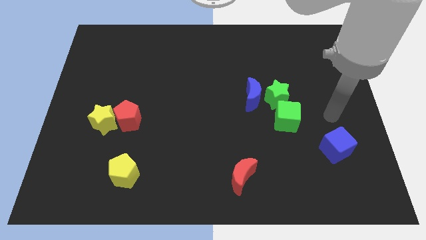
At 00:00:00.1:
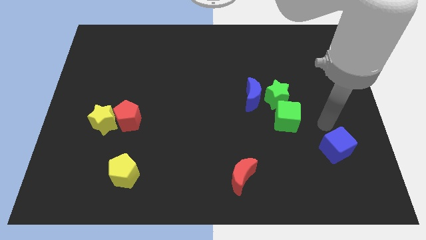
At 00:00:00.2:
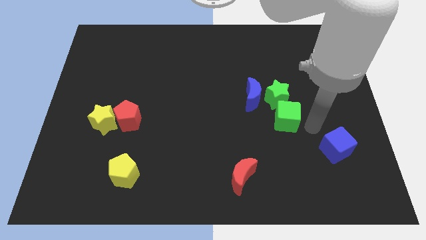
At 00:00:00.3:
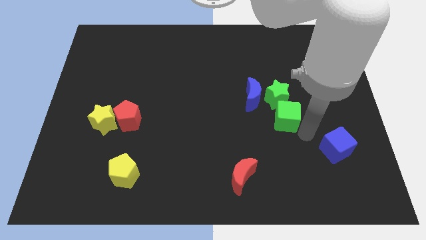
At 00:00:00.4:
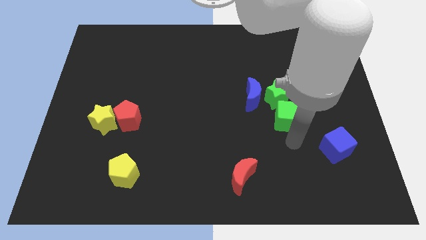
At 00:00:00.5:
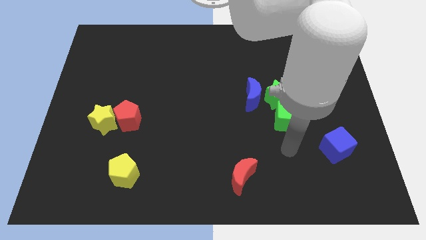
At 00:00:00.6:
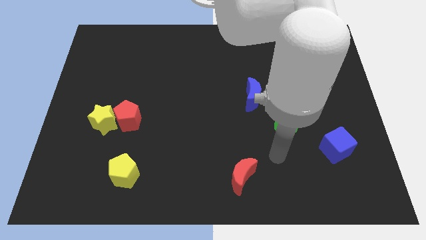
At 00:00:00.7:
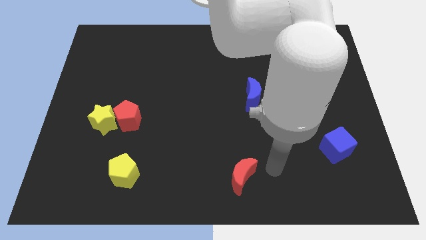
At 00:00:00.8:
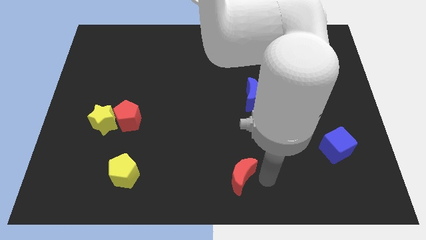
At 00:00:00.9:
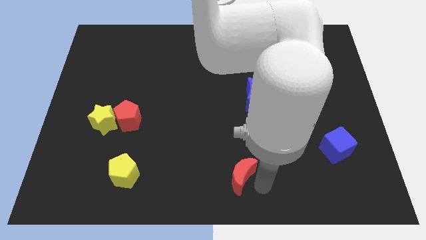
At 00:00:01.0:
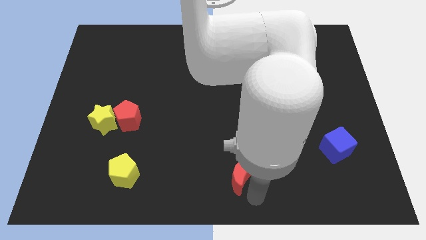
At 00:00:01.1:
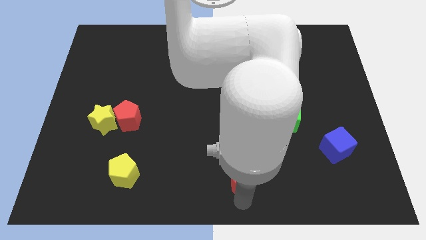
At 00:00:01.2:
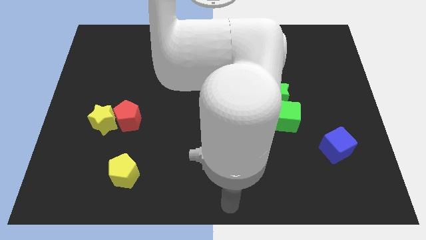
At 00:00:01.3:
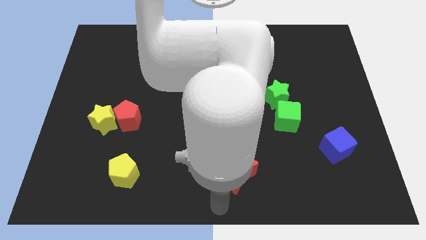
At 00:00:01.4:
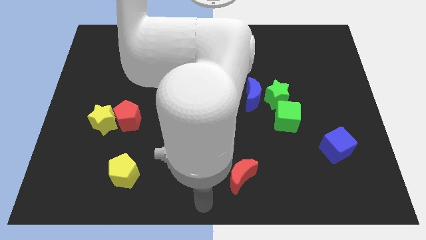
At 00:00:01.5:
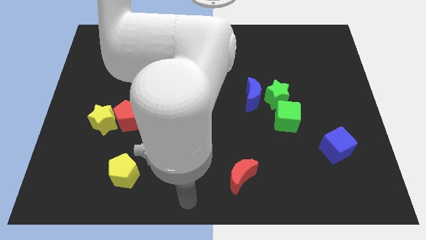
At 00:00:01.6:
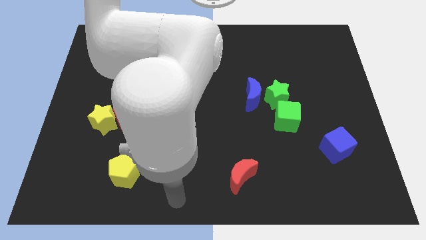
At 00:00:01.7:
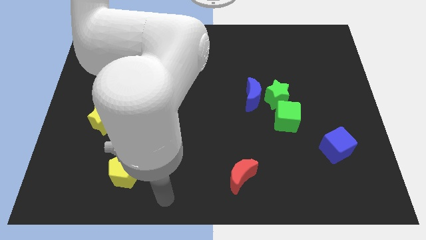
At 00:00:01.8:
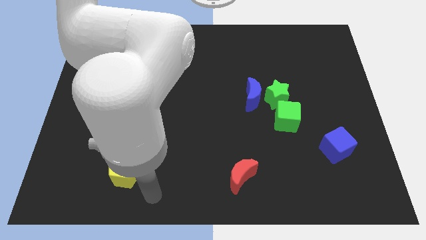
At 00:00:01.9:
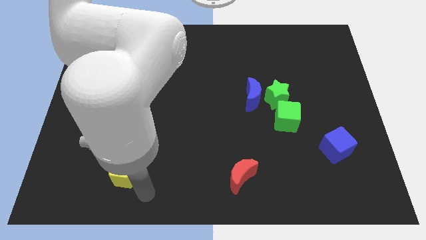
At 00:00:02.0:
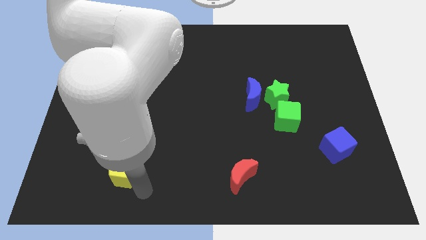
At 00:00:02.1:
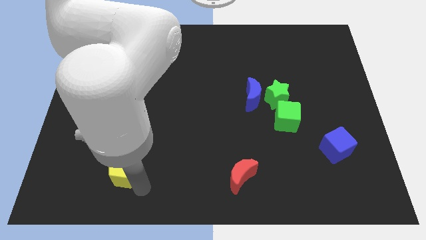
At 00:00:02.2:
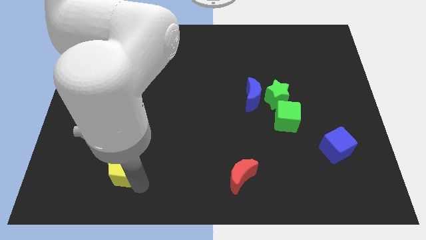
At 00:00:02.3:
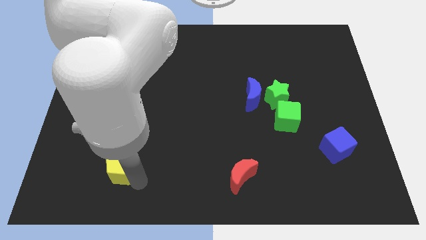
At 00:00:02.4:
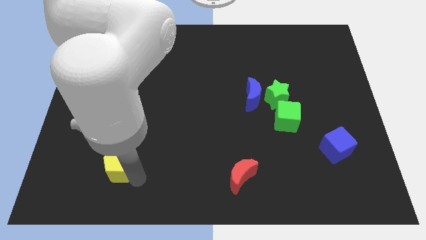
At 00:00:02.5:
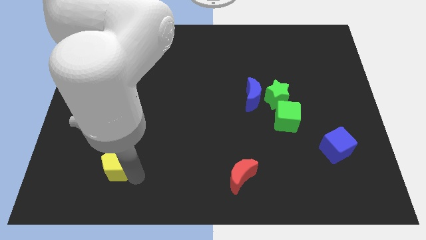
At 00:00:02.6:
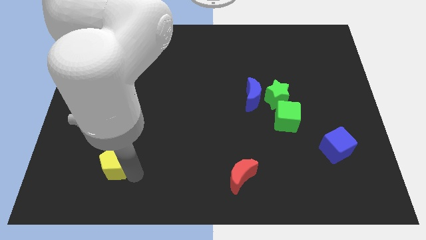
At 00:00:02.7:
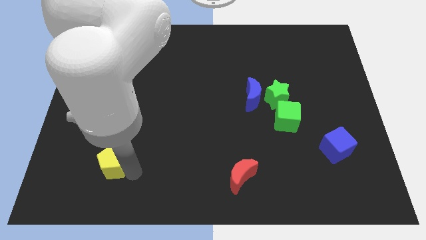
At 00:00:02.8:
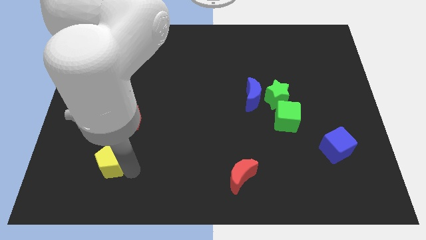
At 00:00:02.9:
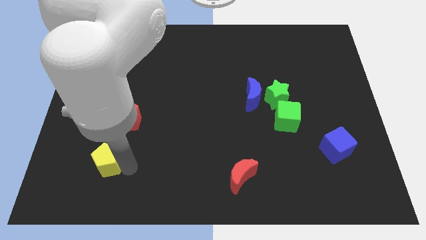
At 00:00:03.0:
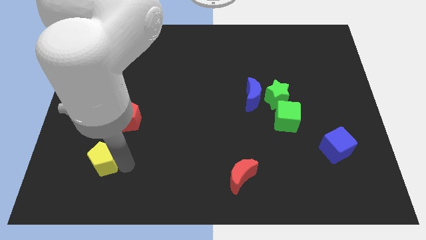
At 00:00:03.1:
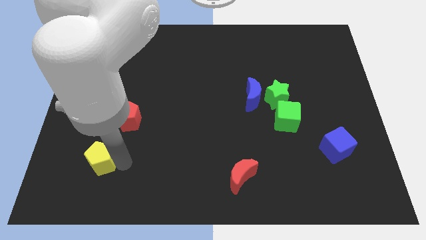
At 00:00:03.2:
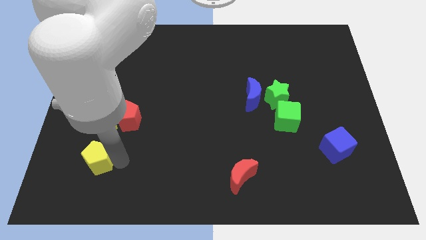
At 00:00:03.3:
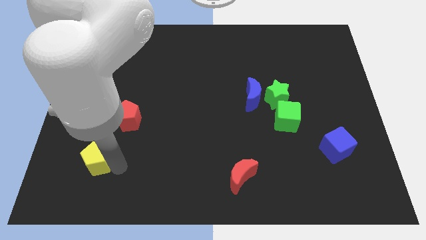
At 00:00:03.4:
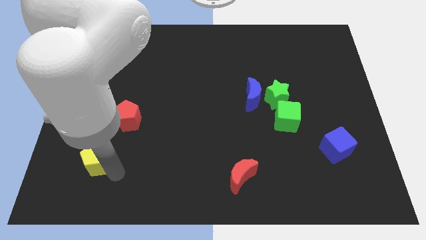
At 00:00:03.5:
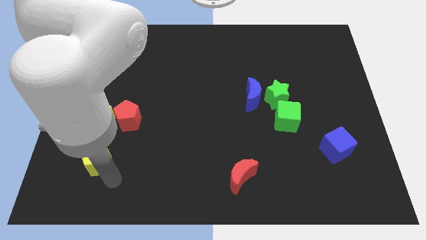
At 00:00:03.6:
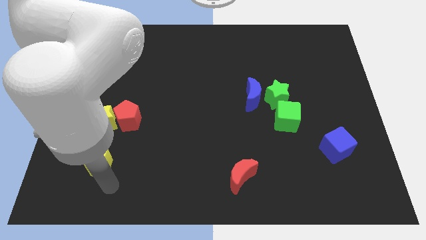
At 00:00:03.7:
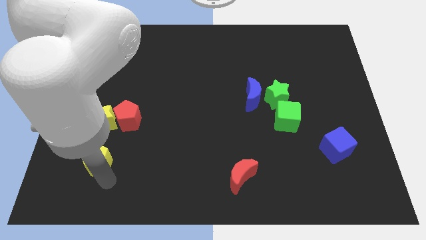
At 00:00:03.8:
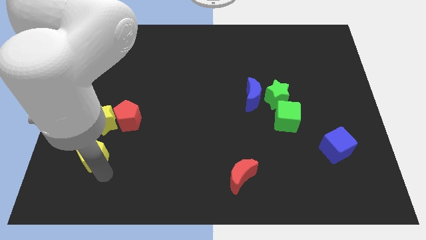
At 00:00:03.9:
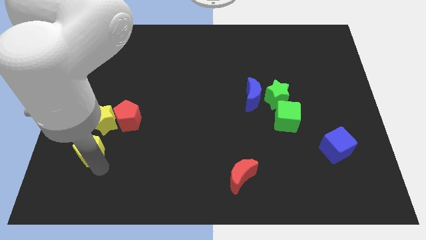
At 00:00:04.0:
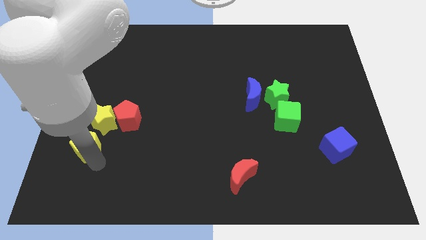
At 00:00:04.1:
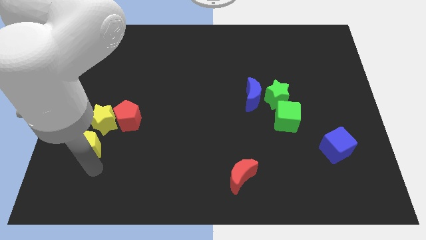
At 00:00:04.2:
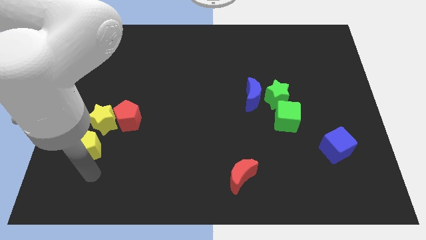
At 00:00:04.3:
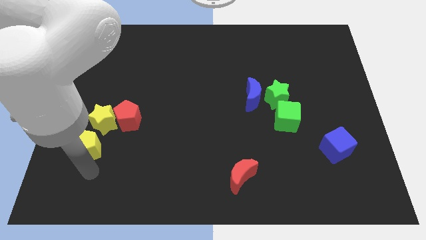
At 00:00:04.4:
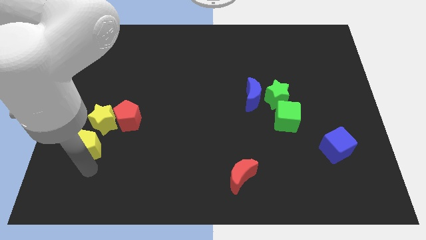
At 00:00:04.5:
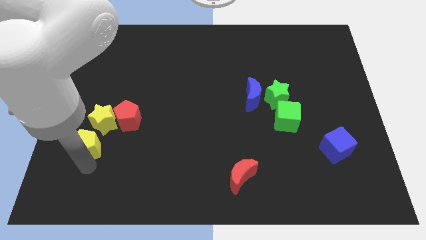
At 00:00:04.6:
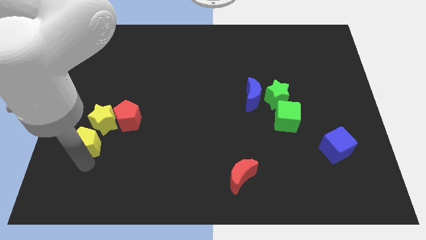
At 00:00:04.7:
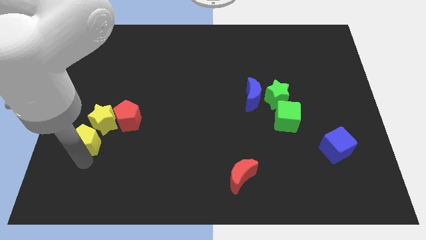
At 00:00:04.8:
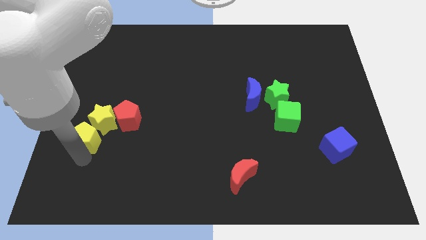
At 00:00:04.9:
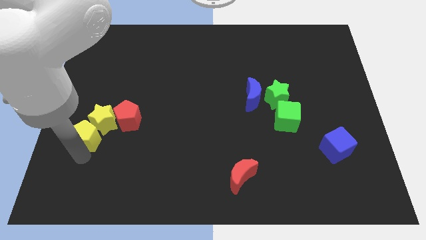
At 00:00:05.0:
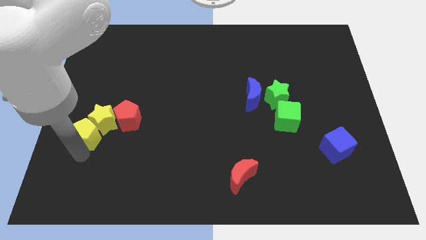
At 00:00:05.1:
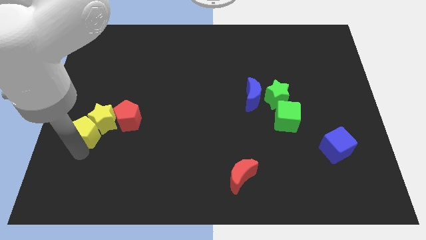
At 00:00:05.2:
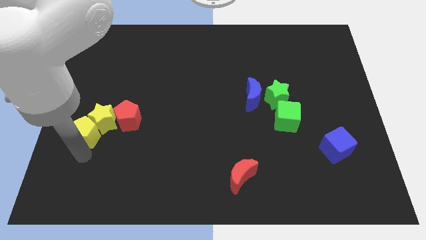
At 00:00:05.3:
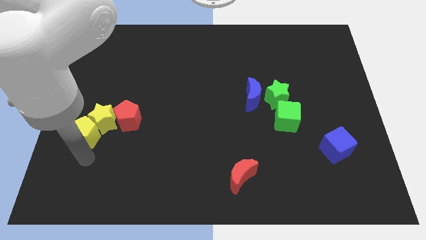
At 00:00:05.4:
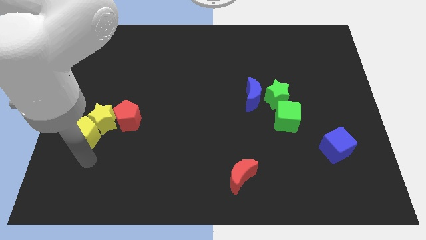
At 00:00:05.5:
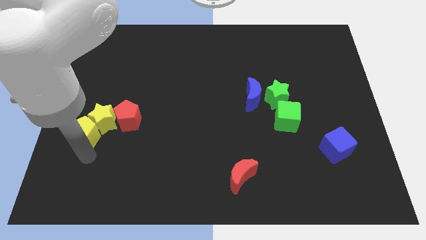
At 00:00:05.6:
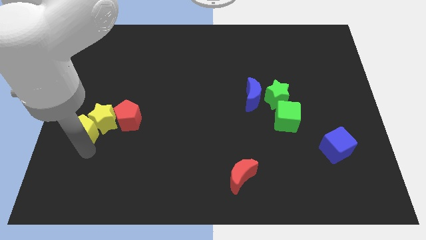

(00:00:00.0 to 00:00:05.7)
move the yellow pentagon to the center left

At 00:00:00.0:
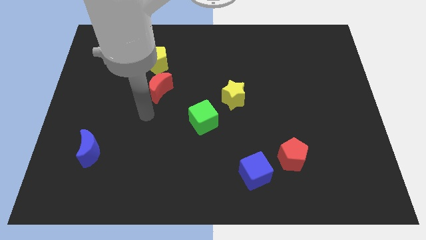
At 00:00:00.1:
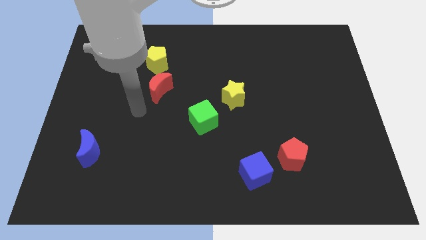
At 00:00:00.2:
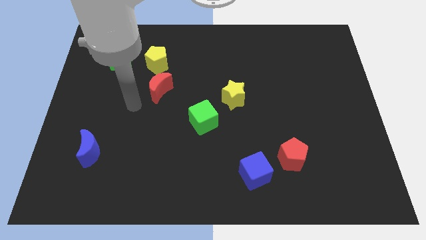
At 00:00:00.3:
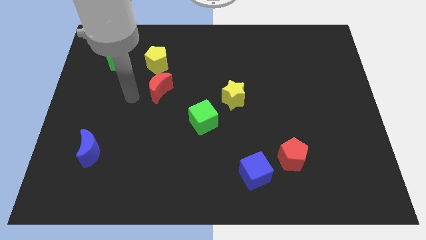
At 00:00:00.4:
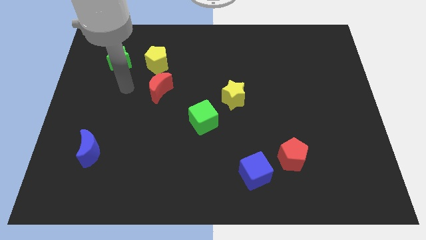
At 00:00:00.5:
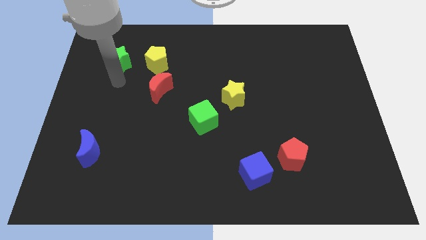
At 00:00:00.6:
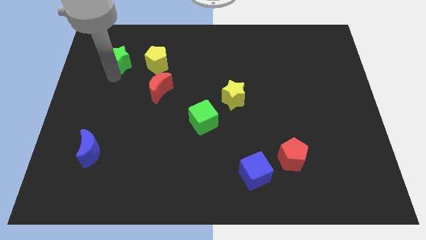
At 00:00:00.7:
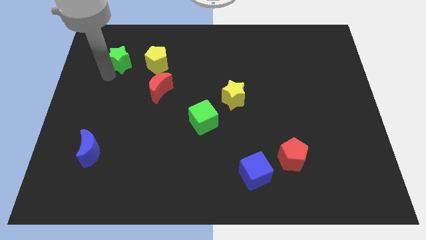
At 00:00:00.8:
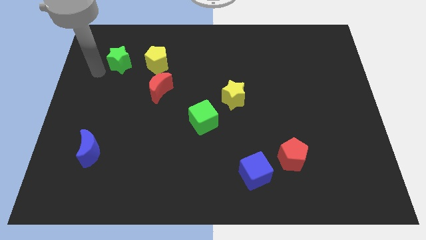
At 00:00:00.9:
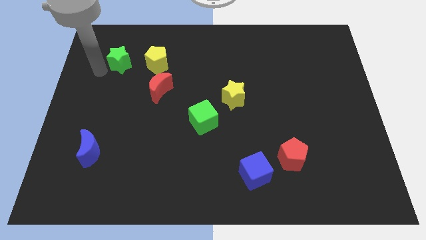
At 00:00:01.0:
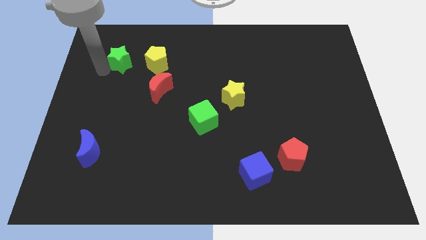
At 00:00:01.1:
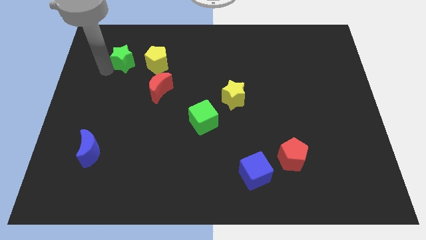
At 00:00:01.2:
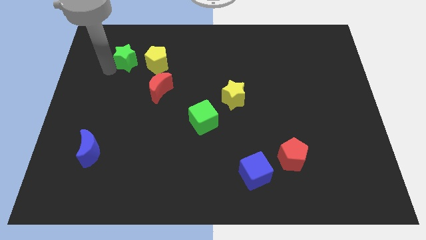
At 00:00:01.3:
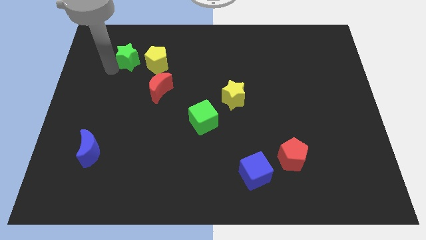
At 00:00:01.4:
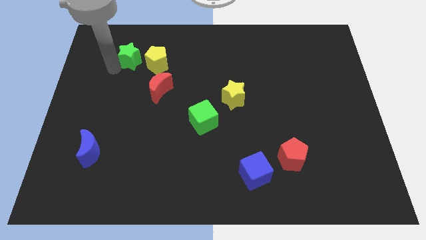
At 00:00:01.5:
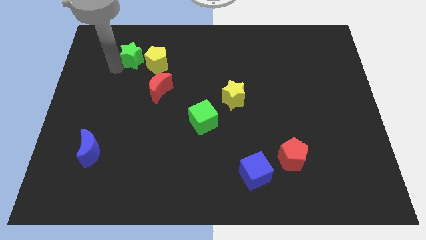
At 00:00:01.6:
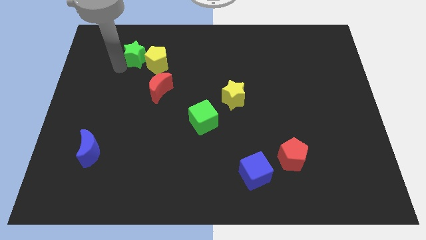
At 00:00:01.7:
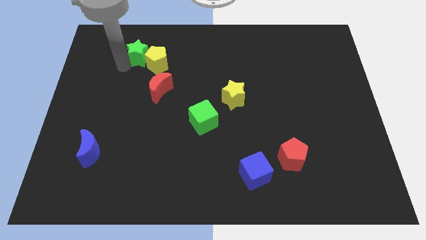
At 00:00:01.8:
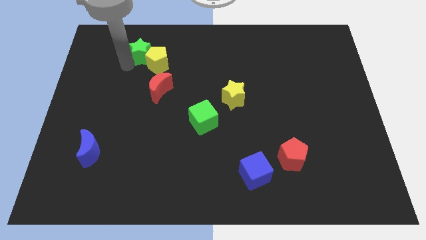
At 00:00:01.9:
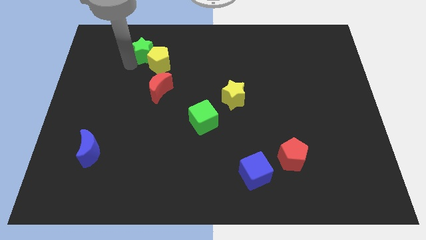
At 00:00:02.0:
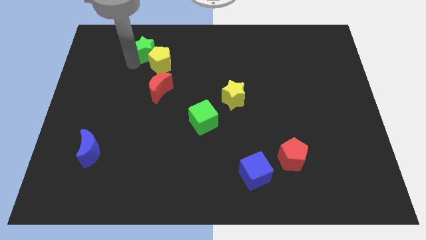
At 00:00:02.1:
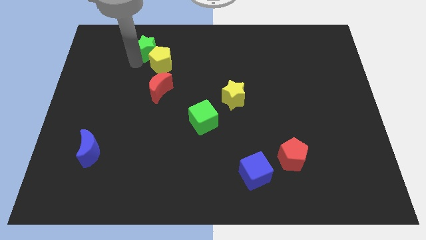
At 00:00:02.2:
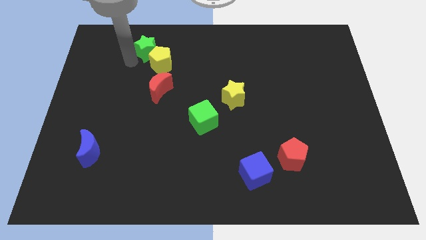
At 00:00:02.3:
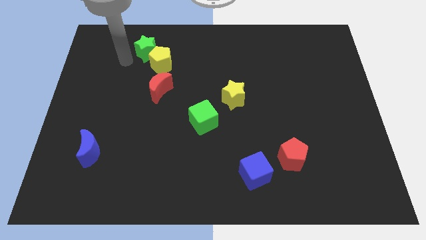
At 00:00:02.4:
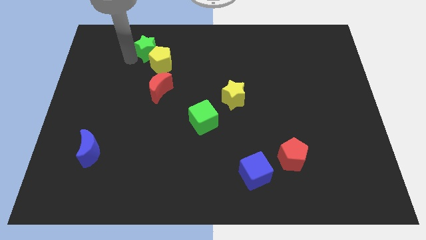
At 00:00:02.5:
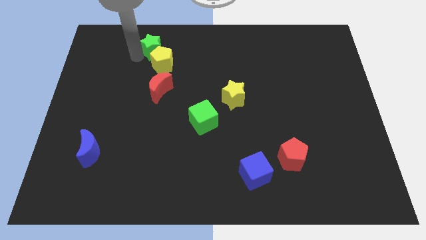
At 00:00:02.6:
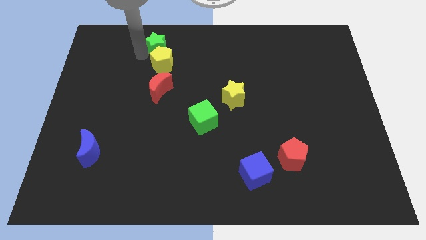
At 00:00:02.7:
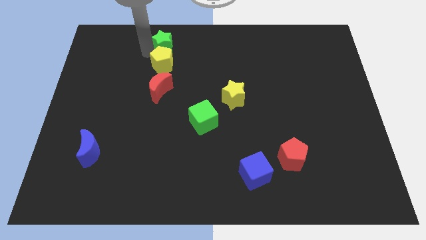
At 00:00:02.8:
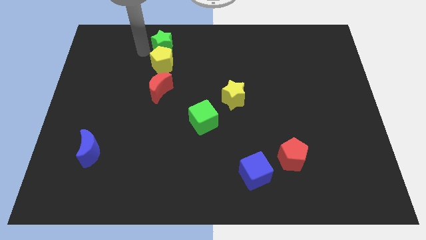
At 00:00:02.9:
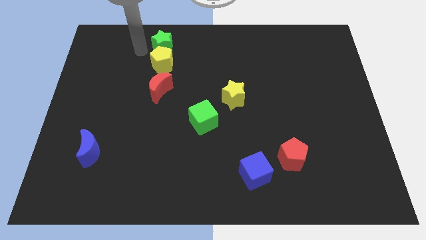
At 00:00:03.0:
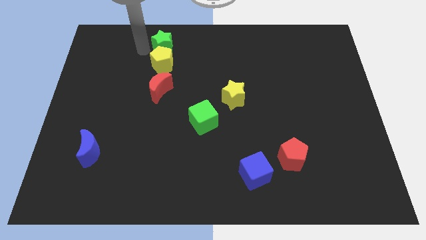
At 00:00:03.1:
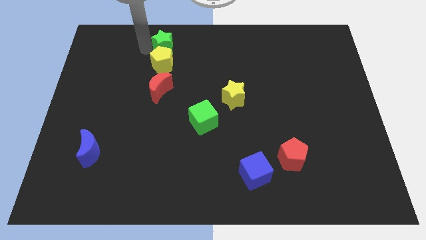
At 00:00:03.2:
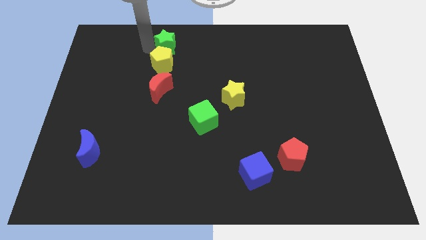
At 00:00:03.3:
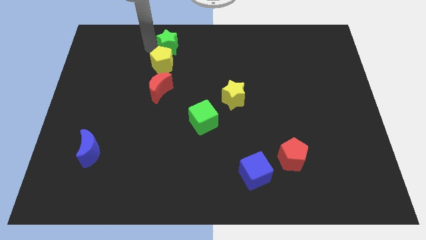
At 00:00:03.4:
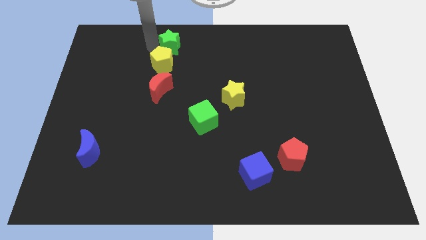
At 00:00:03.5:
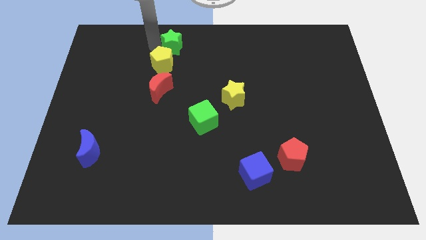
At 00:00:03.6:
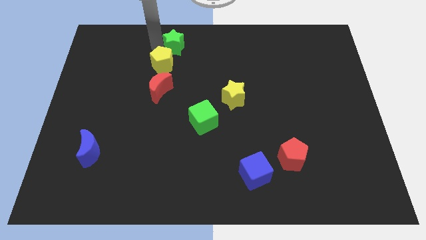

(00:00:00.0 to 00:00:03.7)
move the green star to the top
